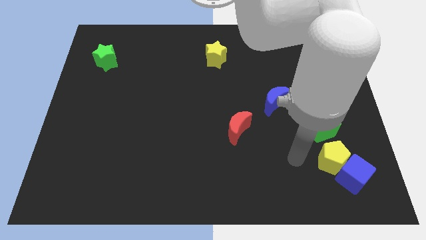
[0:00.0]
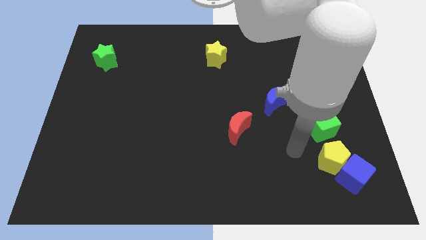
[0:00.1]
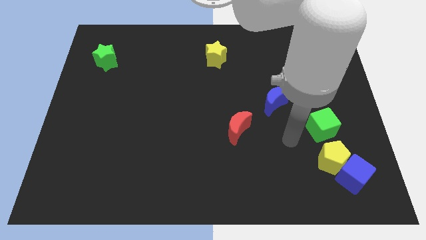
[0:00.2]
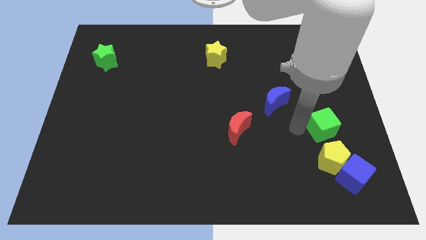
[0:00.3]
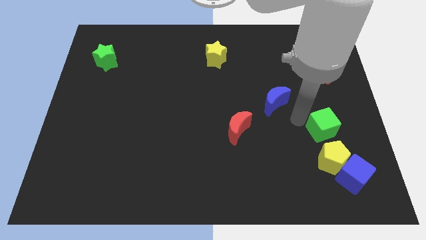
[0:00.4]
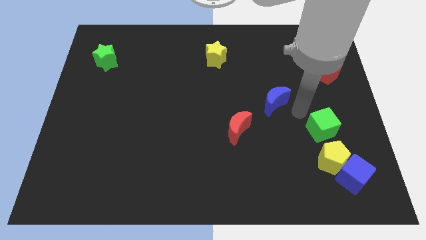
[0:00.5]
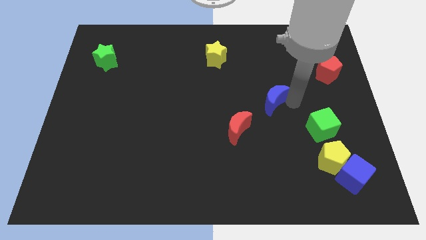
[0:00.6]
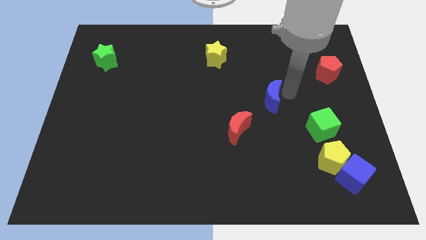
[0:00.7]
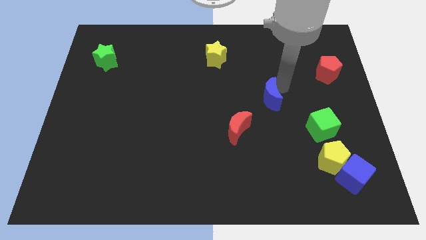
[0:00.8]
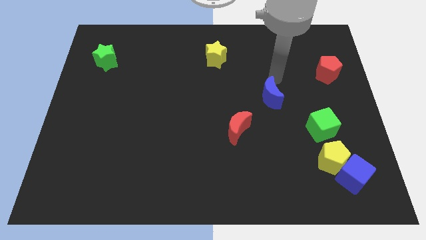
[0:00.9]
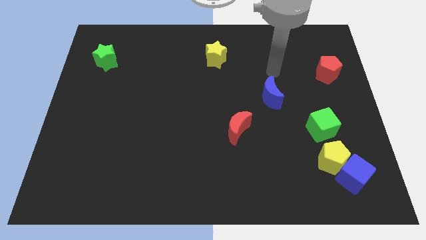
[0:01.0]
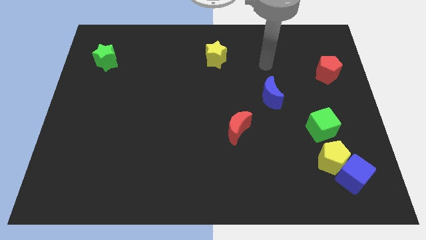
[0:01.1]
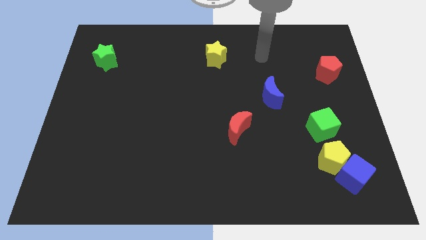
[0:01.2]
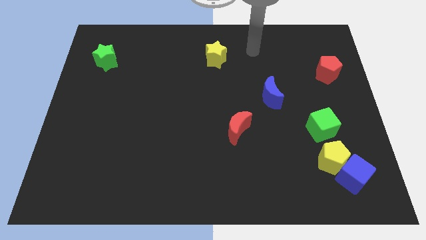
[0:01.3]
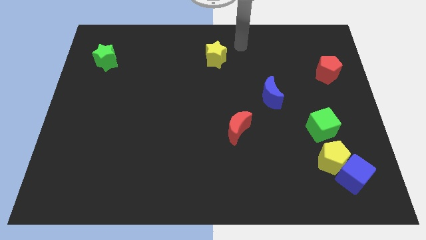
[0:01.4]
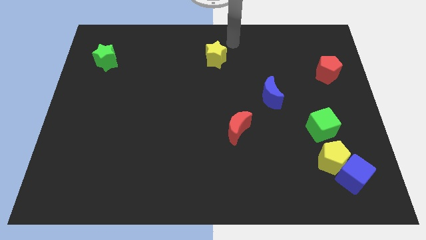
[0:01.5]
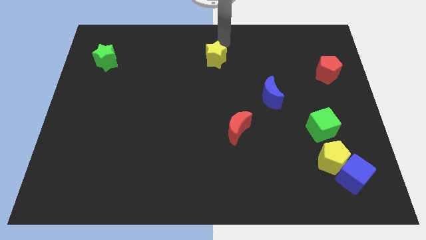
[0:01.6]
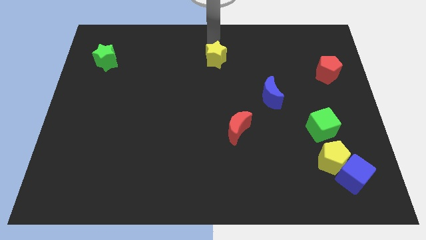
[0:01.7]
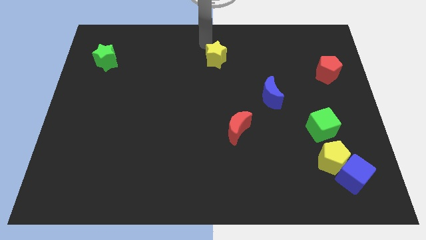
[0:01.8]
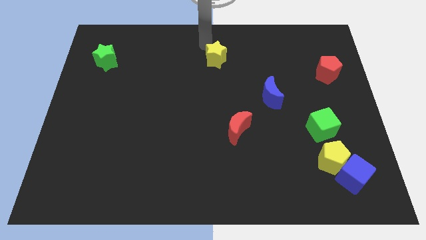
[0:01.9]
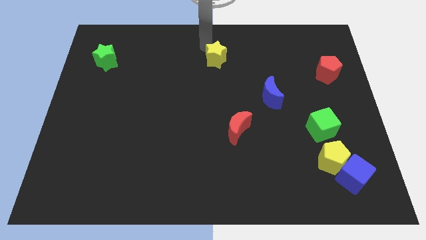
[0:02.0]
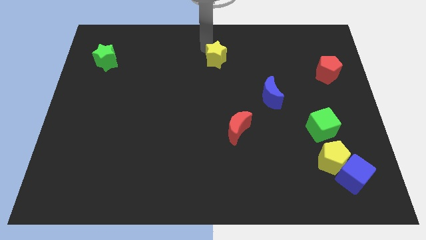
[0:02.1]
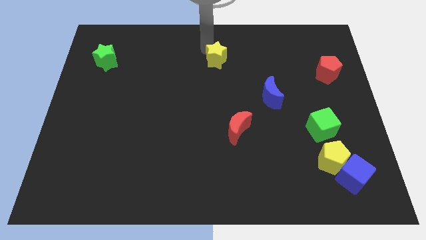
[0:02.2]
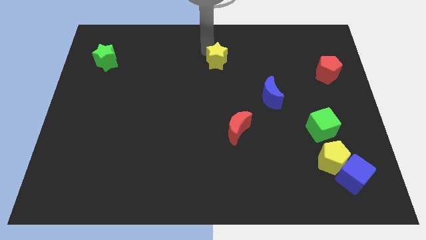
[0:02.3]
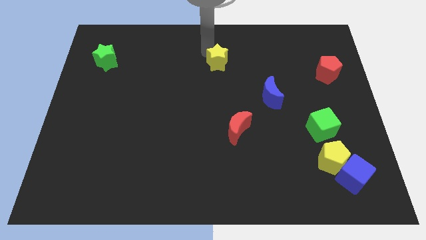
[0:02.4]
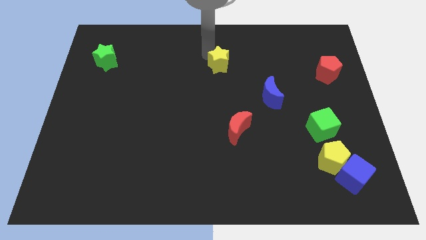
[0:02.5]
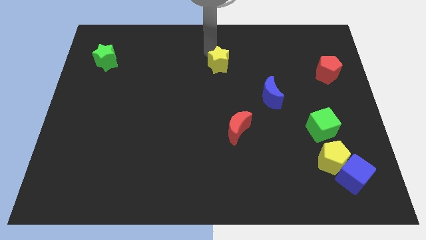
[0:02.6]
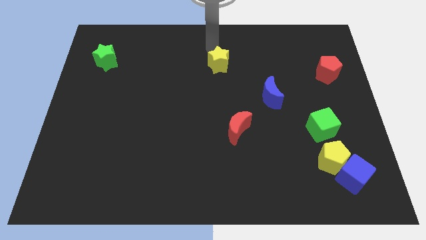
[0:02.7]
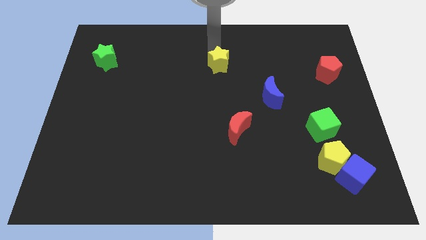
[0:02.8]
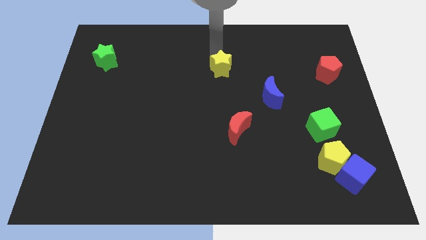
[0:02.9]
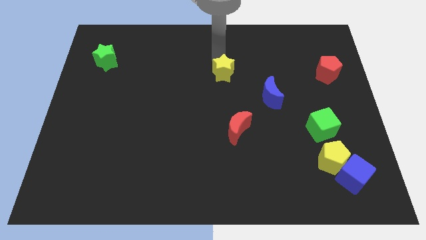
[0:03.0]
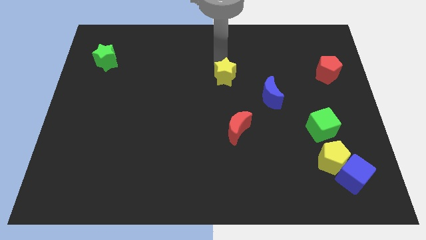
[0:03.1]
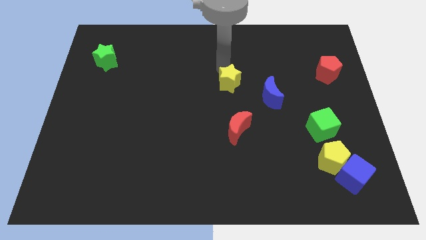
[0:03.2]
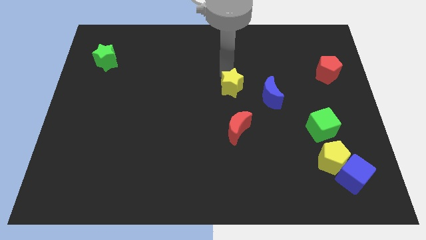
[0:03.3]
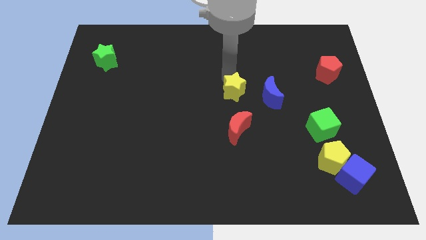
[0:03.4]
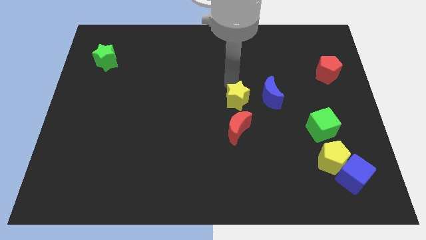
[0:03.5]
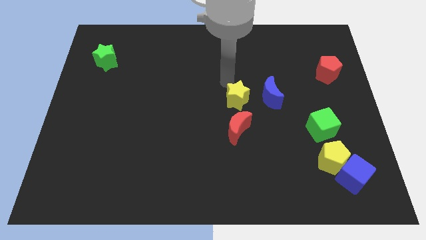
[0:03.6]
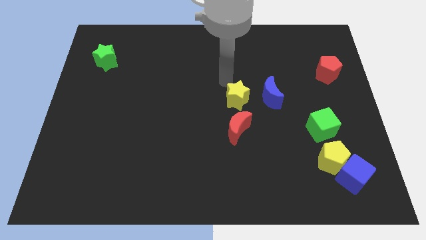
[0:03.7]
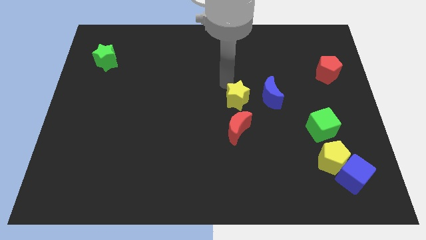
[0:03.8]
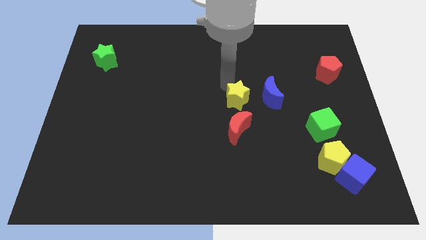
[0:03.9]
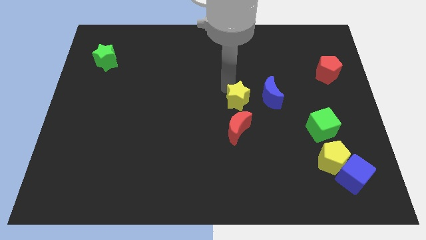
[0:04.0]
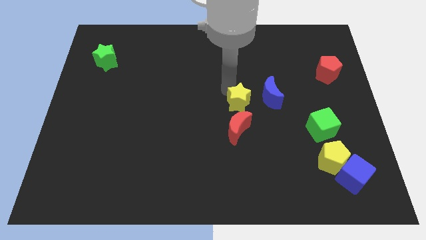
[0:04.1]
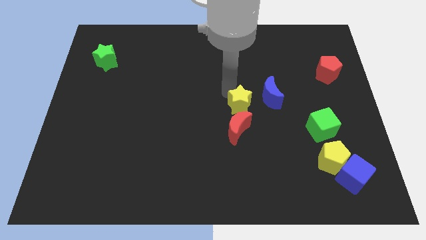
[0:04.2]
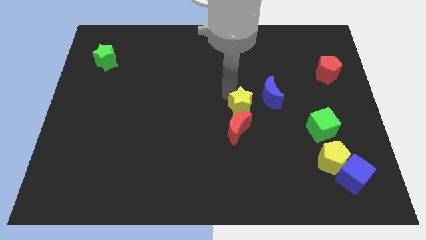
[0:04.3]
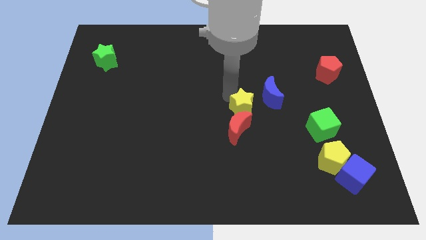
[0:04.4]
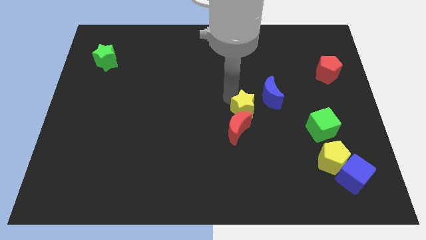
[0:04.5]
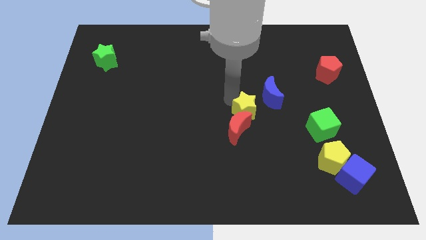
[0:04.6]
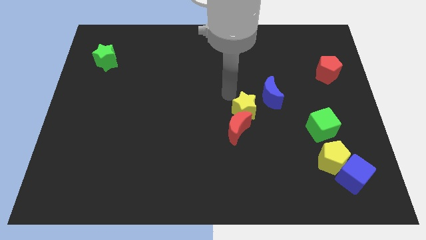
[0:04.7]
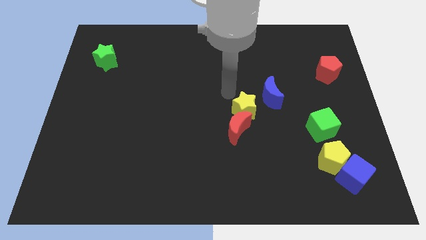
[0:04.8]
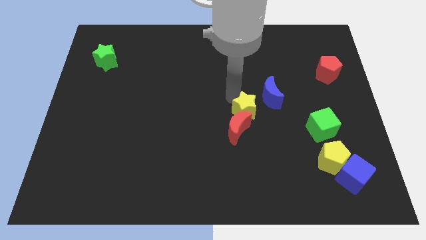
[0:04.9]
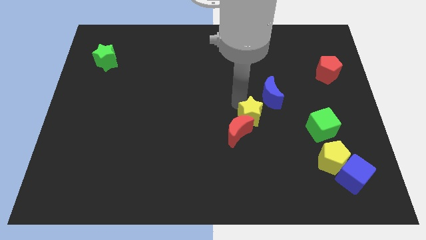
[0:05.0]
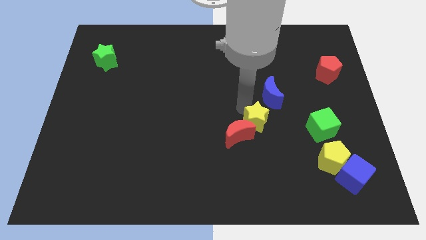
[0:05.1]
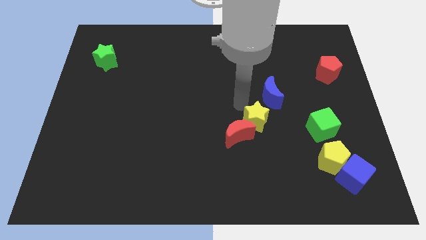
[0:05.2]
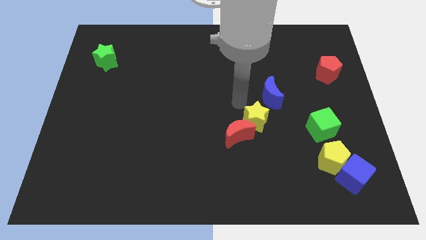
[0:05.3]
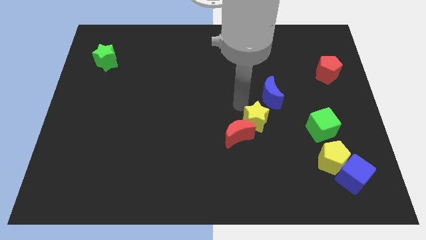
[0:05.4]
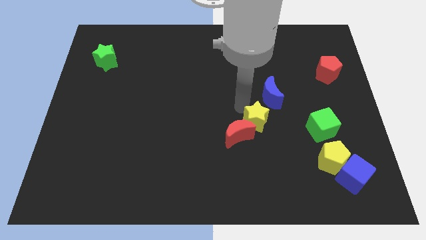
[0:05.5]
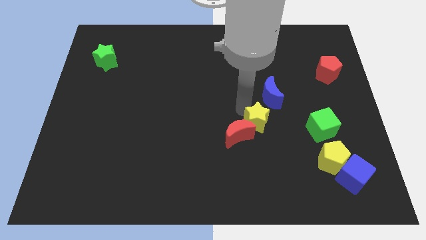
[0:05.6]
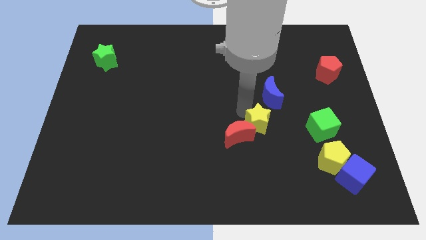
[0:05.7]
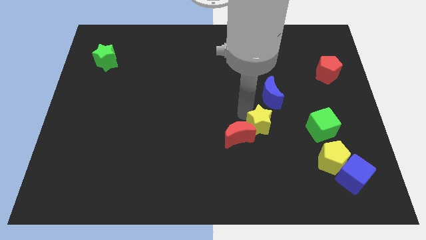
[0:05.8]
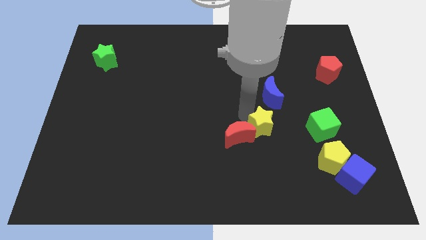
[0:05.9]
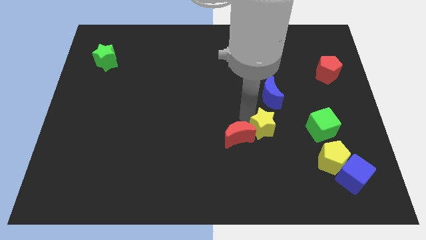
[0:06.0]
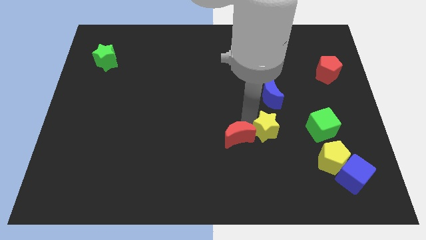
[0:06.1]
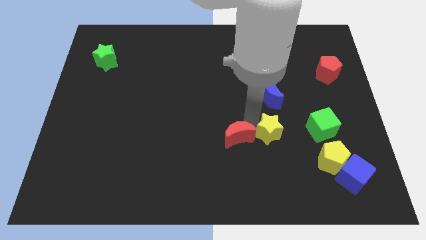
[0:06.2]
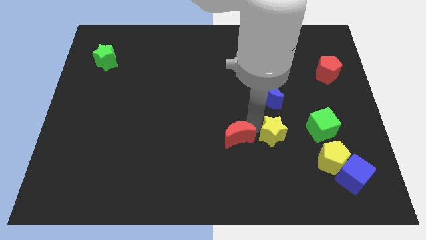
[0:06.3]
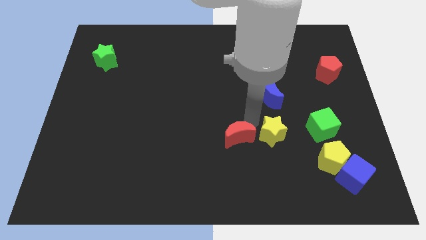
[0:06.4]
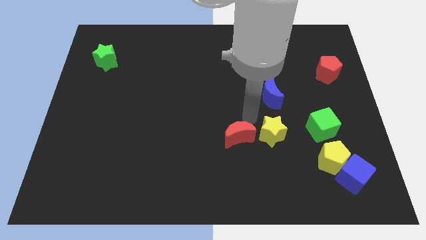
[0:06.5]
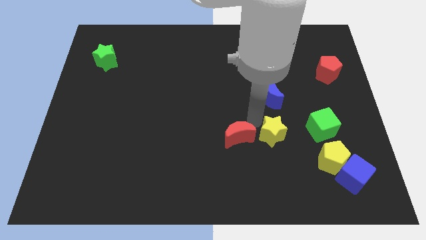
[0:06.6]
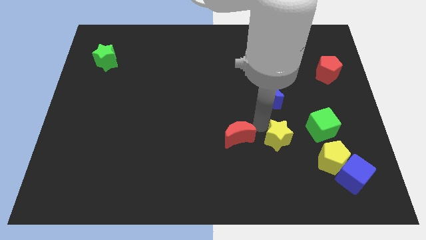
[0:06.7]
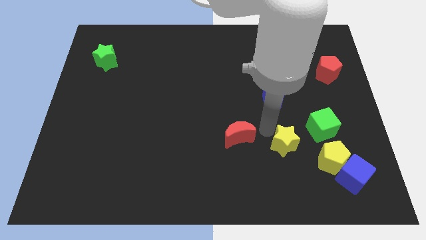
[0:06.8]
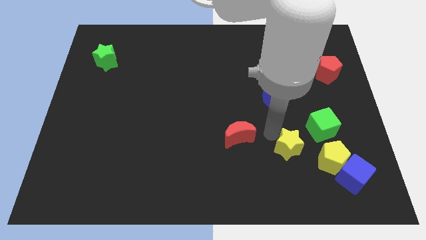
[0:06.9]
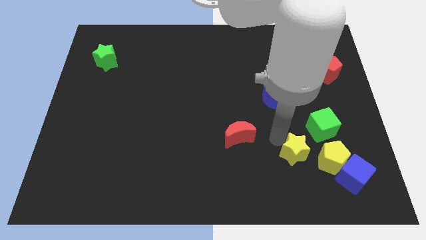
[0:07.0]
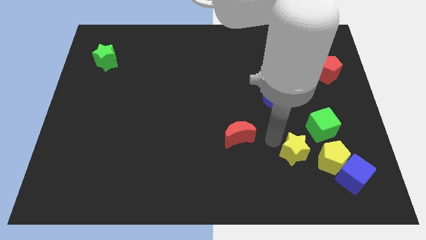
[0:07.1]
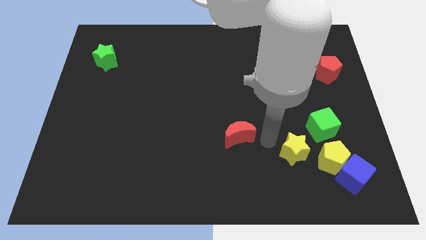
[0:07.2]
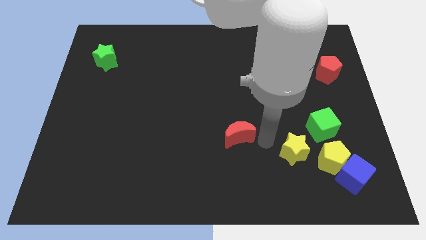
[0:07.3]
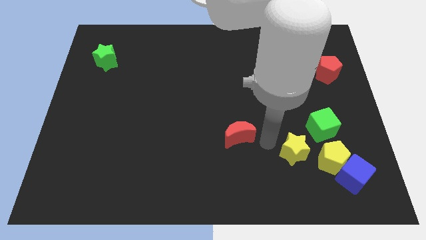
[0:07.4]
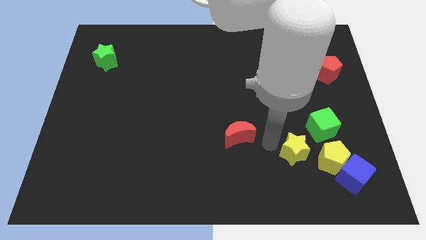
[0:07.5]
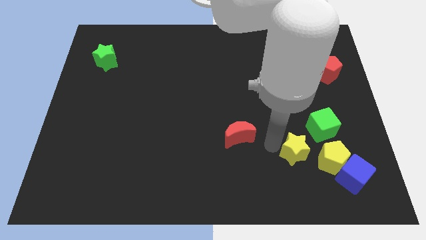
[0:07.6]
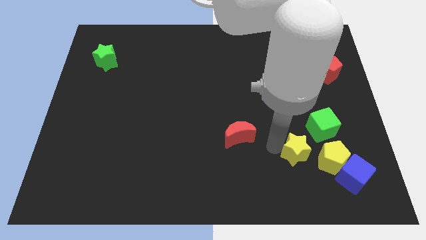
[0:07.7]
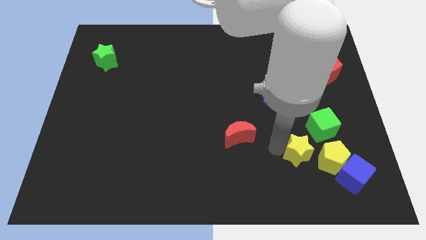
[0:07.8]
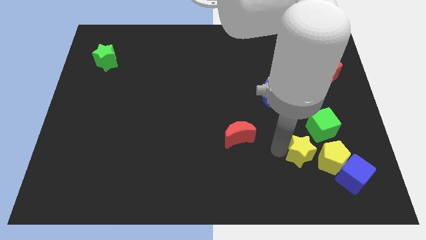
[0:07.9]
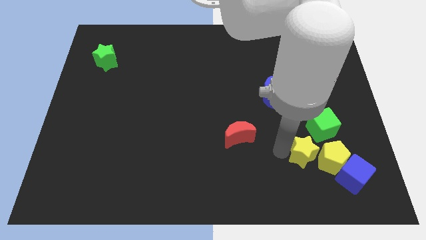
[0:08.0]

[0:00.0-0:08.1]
move the yellow star close to the yellow pentagon
